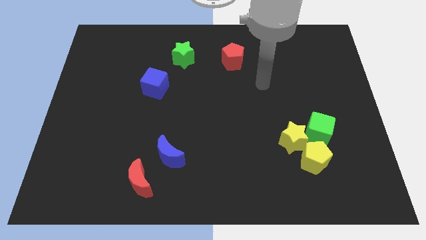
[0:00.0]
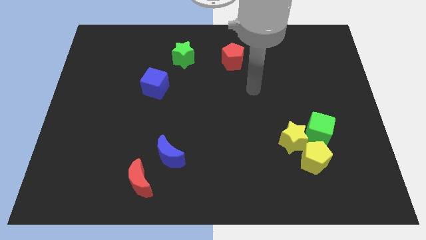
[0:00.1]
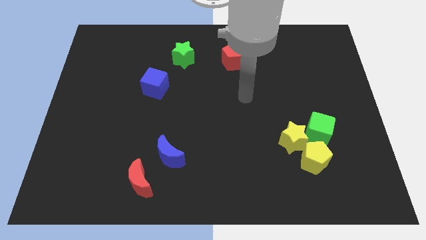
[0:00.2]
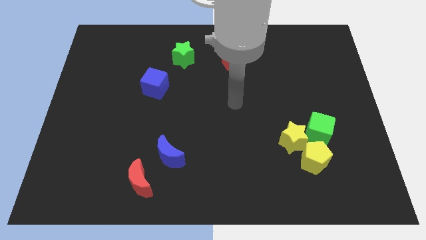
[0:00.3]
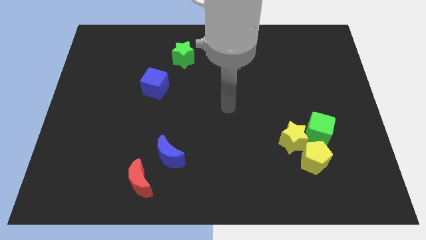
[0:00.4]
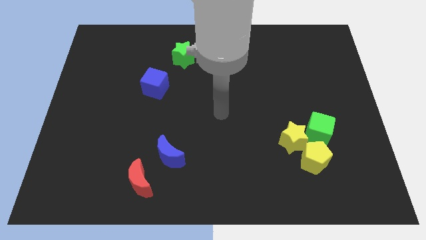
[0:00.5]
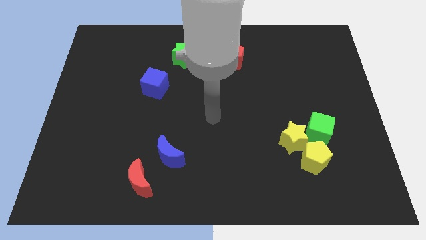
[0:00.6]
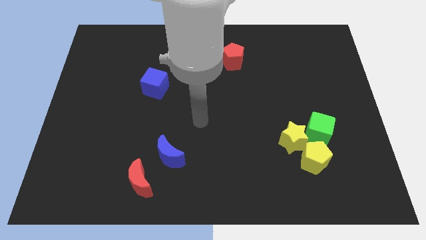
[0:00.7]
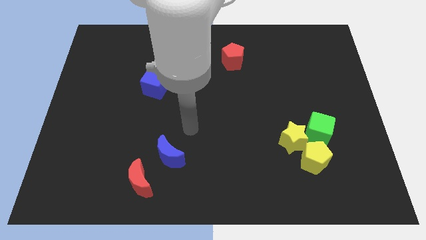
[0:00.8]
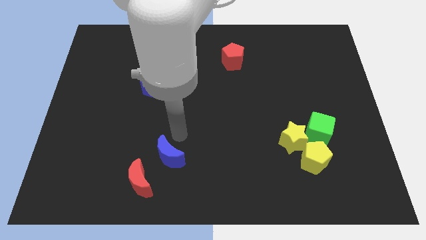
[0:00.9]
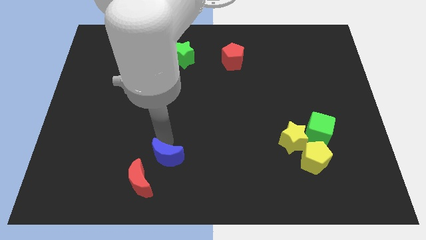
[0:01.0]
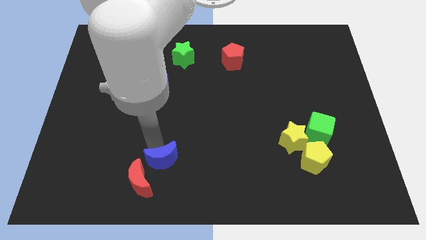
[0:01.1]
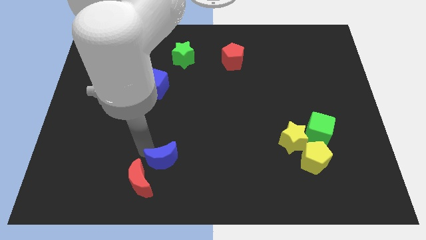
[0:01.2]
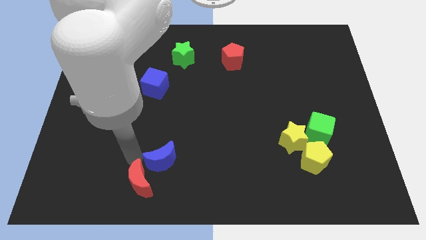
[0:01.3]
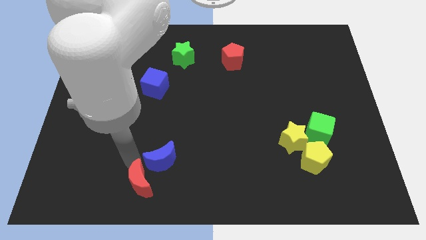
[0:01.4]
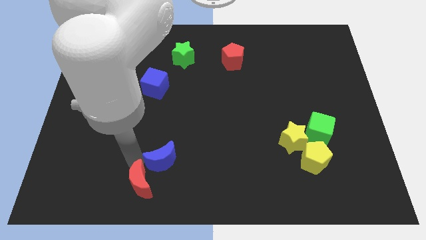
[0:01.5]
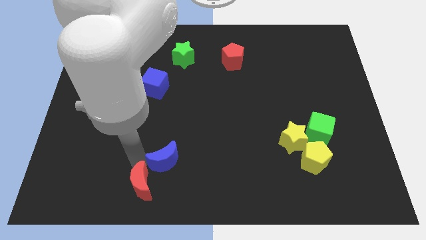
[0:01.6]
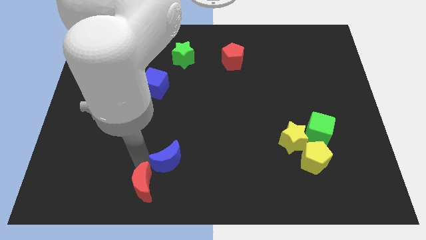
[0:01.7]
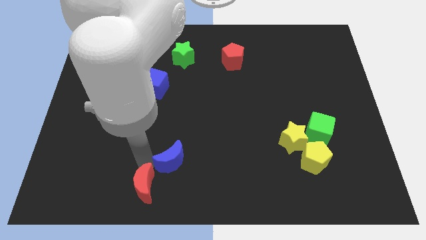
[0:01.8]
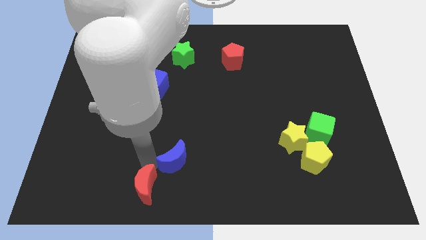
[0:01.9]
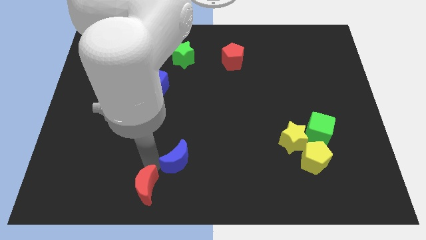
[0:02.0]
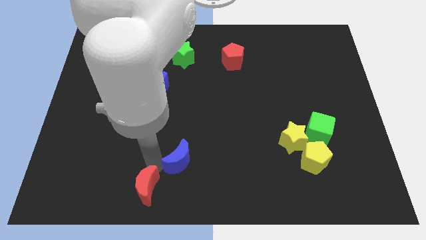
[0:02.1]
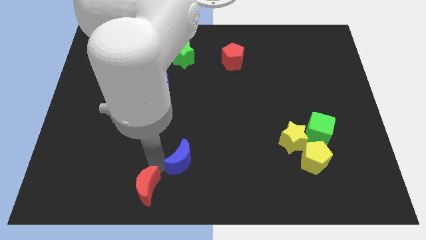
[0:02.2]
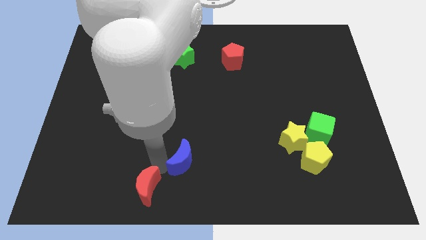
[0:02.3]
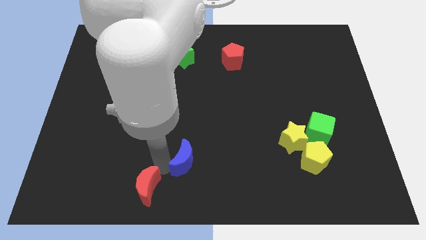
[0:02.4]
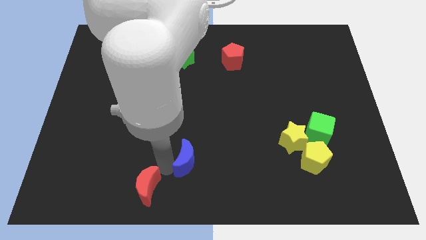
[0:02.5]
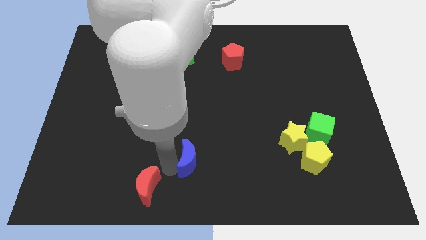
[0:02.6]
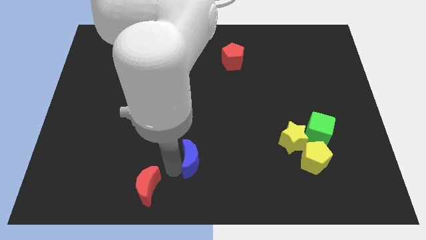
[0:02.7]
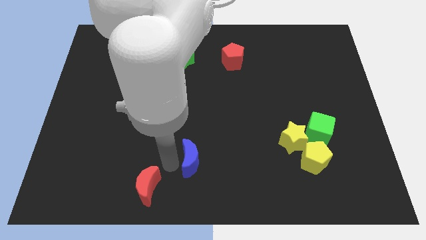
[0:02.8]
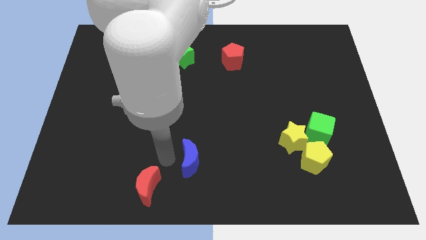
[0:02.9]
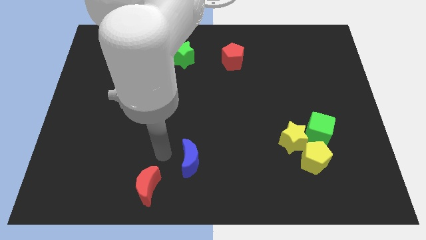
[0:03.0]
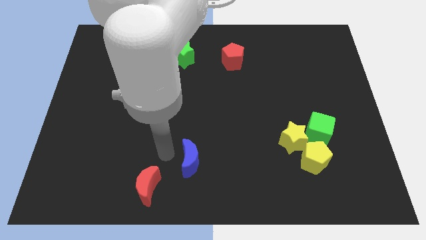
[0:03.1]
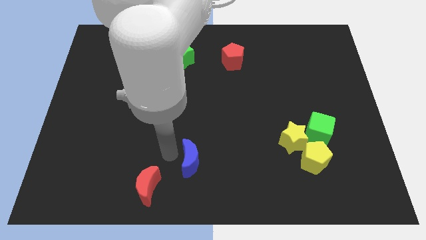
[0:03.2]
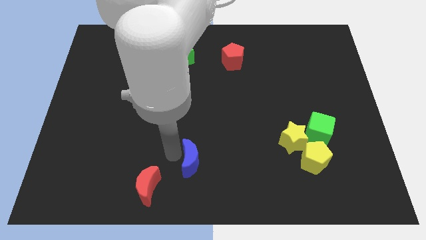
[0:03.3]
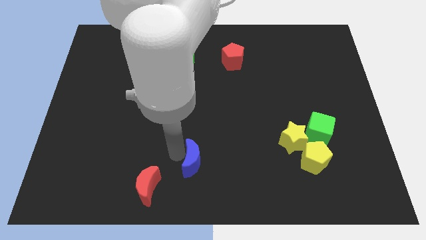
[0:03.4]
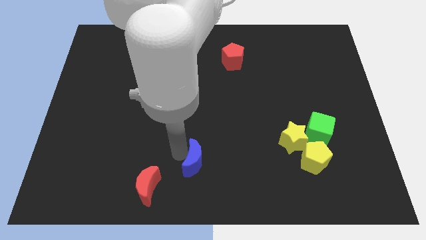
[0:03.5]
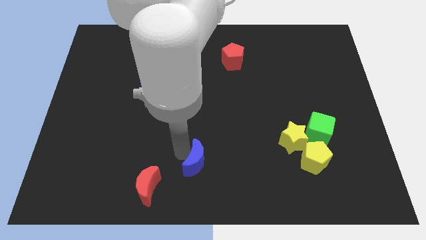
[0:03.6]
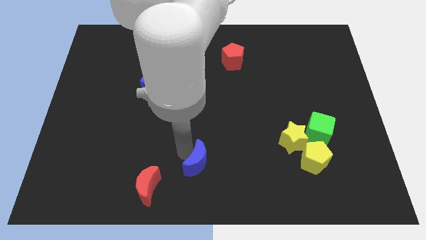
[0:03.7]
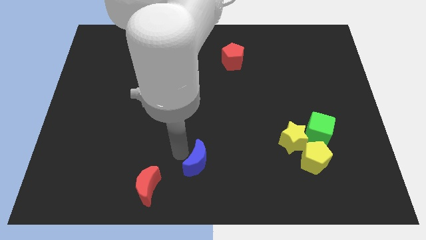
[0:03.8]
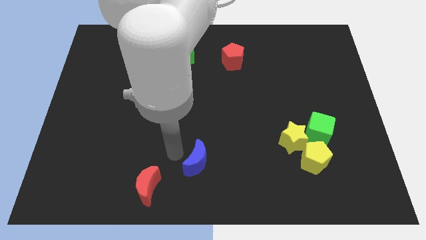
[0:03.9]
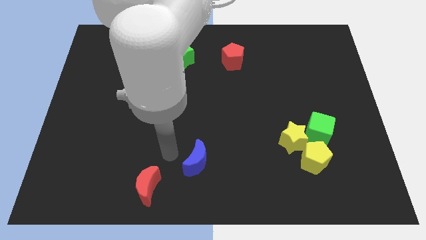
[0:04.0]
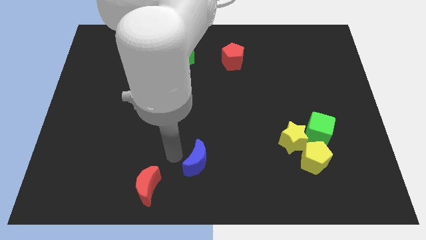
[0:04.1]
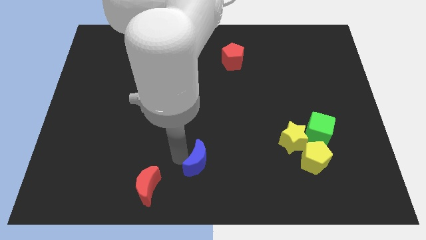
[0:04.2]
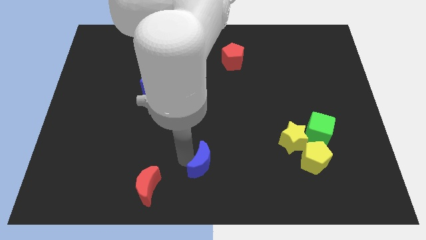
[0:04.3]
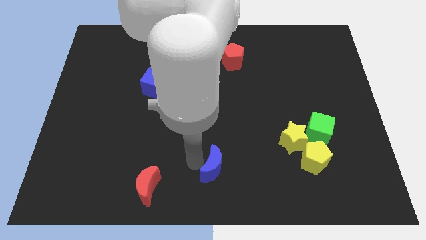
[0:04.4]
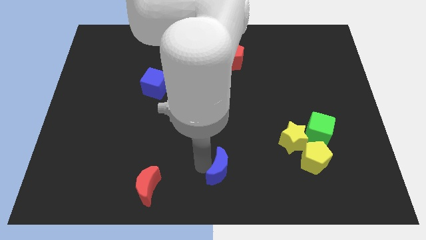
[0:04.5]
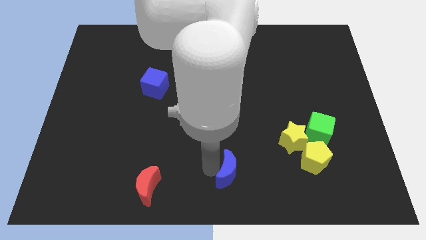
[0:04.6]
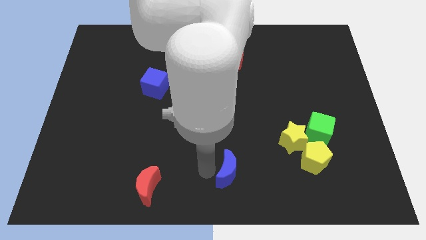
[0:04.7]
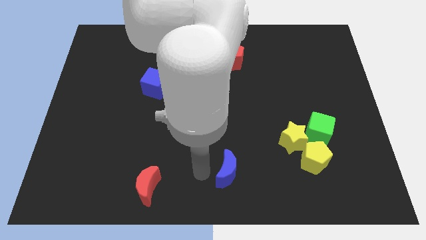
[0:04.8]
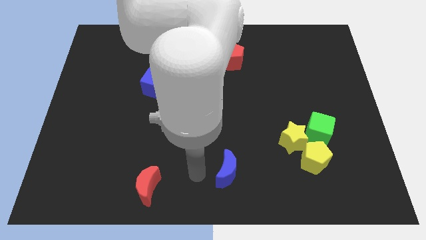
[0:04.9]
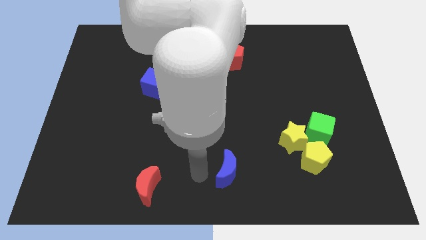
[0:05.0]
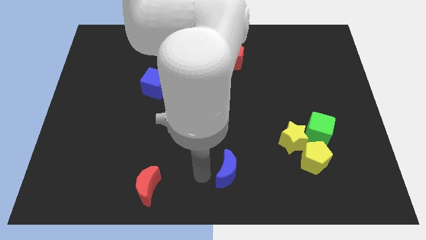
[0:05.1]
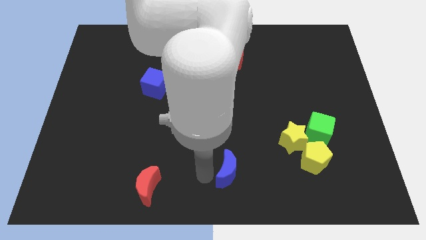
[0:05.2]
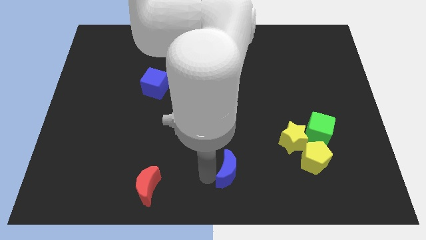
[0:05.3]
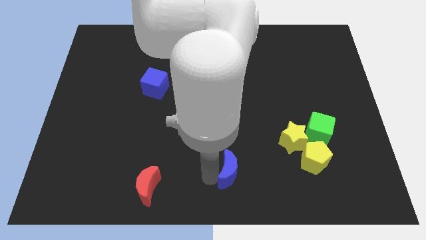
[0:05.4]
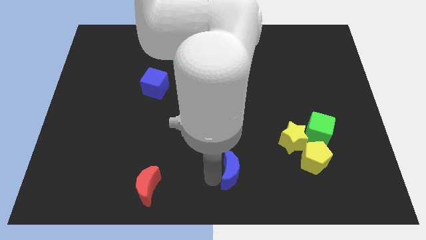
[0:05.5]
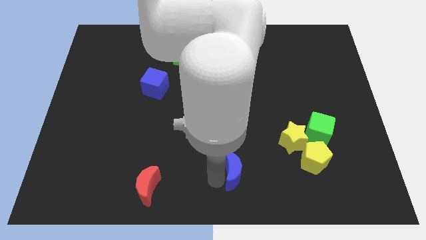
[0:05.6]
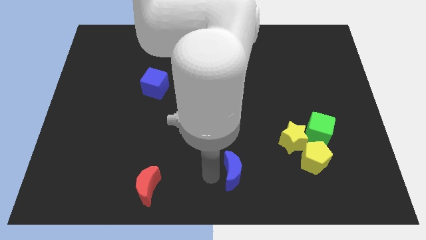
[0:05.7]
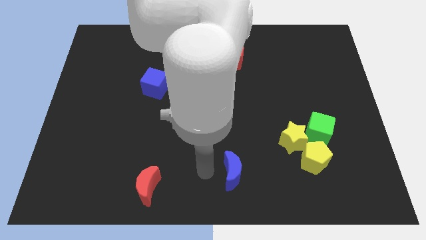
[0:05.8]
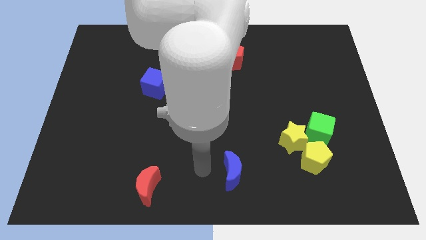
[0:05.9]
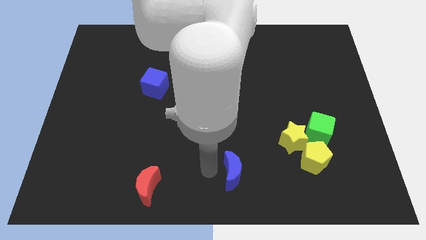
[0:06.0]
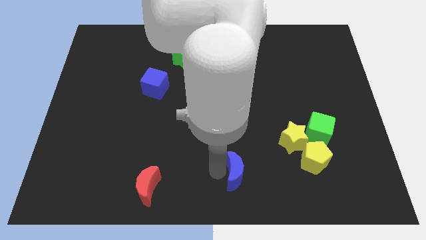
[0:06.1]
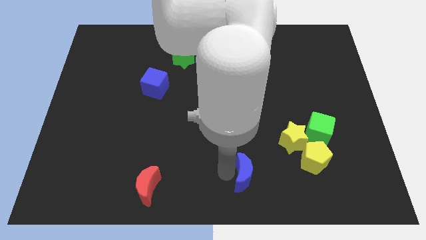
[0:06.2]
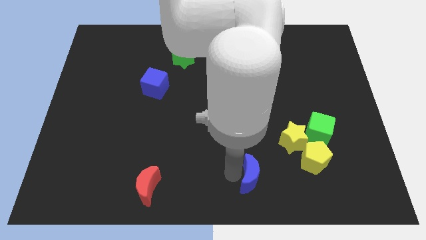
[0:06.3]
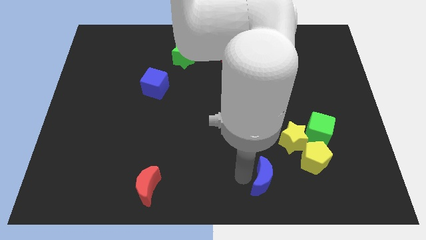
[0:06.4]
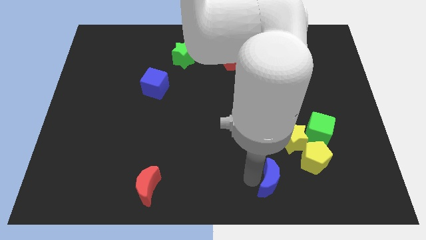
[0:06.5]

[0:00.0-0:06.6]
move the blue moon diagonally down and to the left of the yellow pentagon
